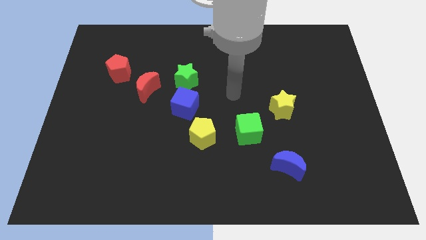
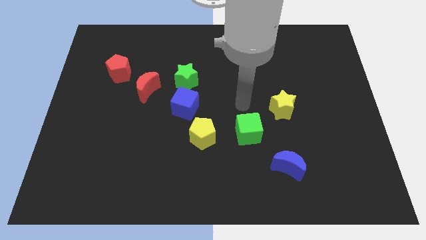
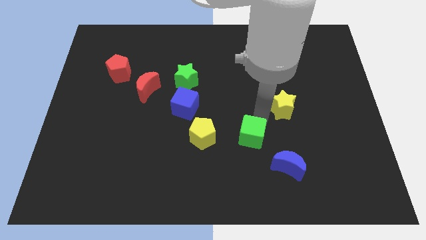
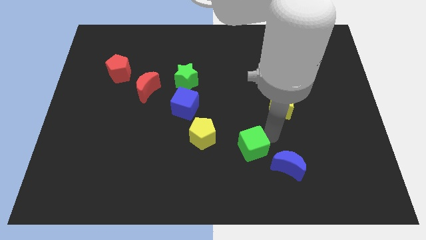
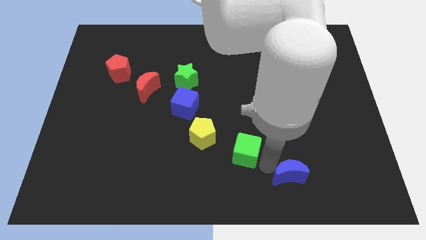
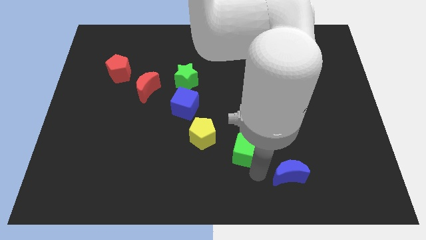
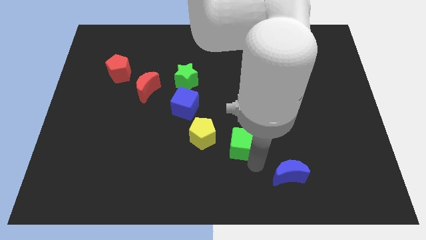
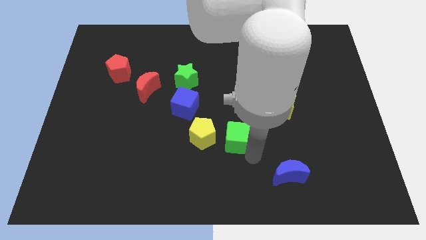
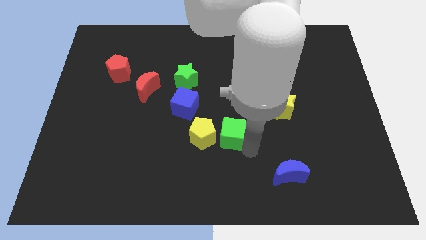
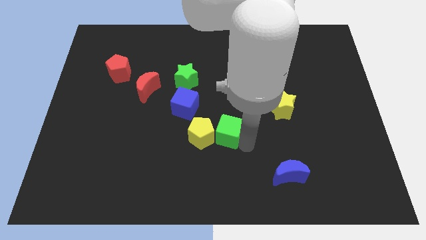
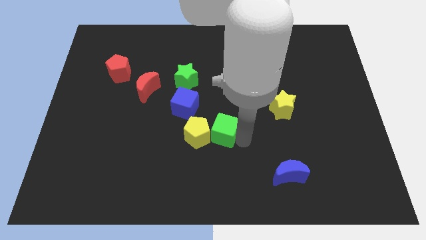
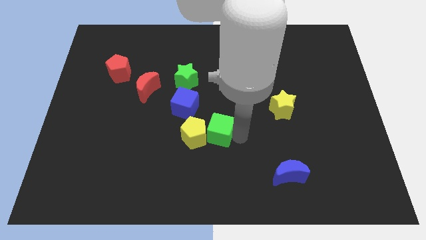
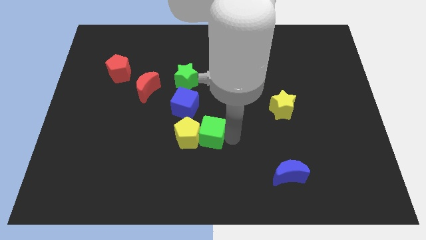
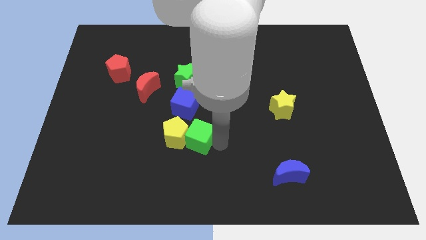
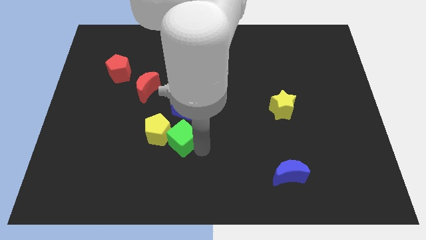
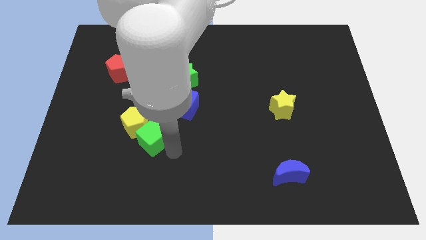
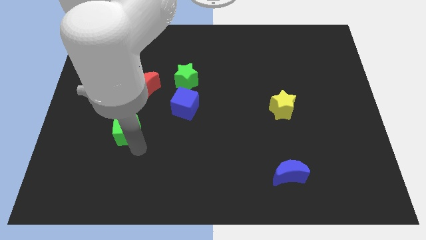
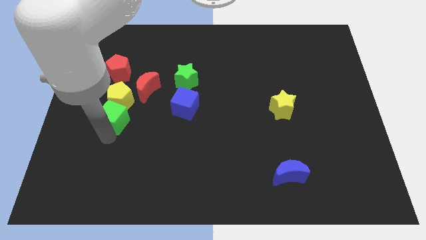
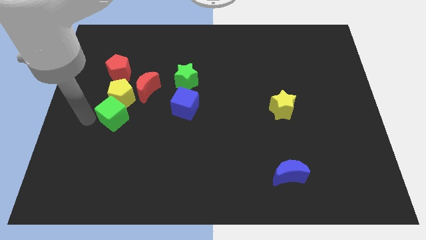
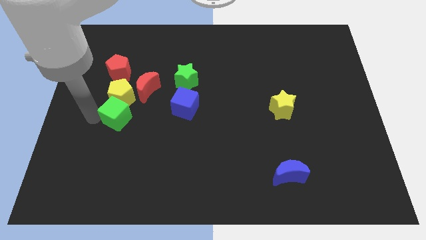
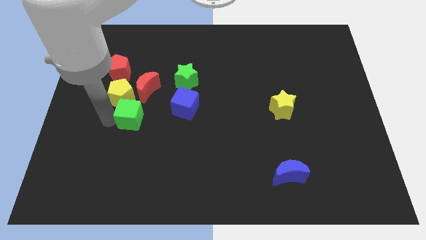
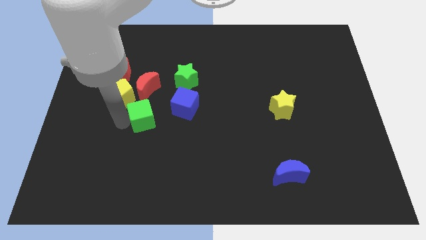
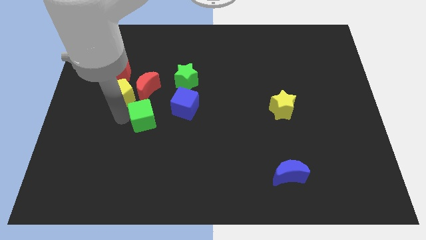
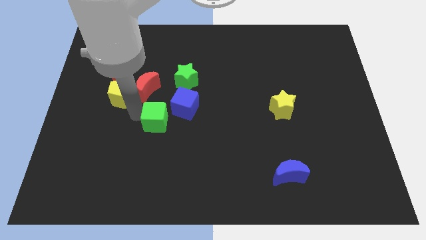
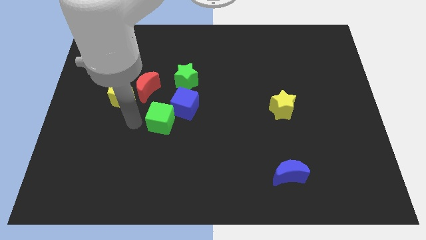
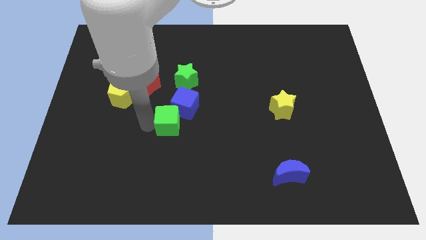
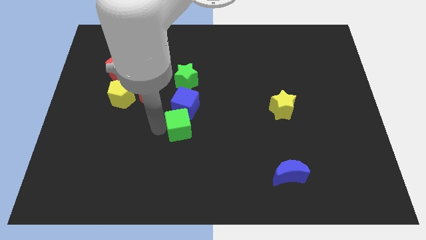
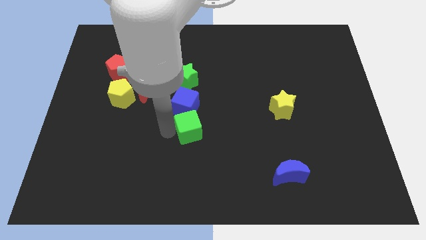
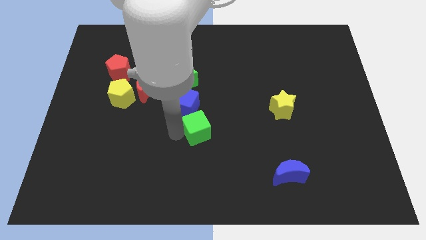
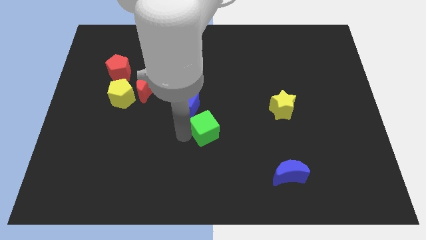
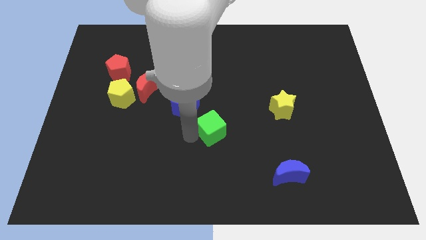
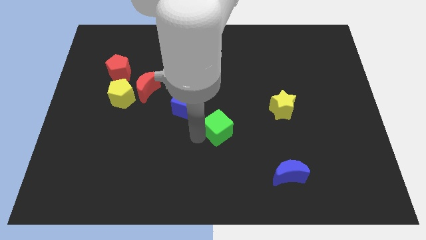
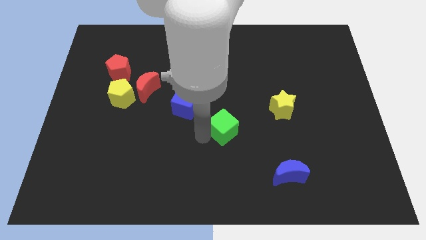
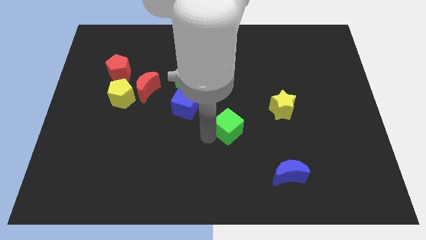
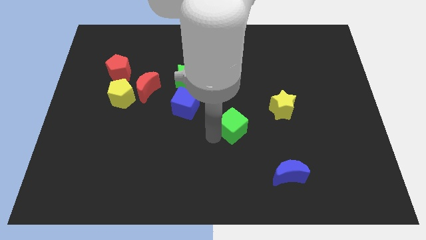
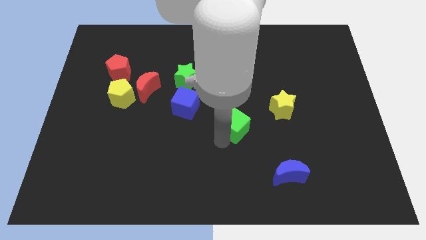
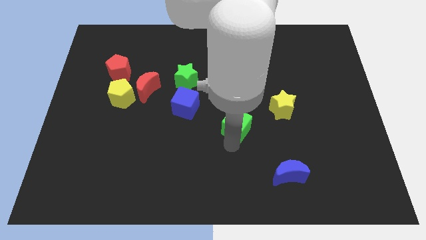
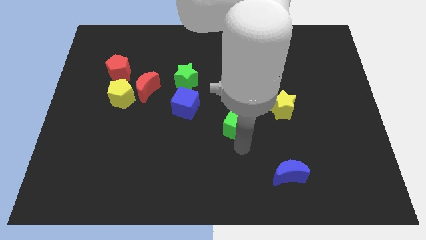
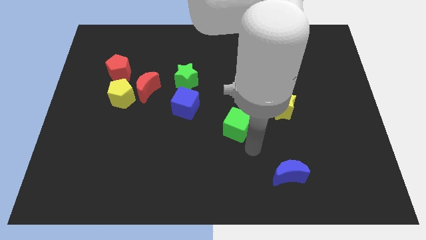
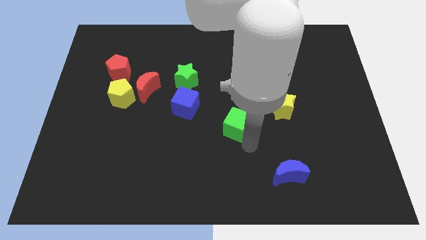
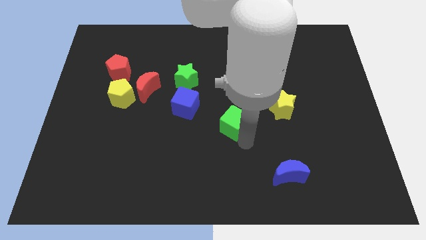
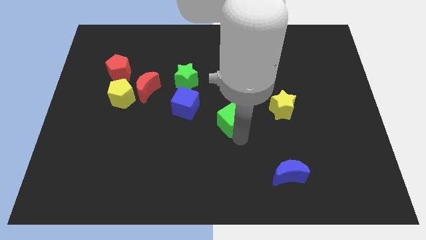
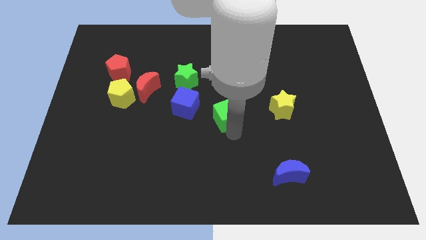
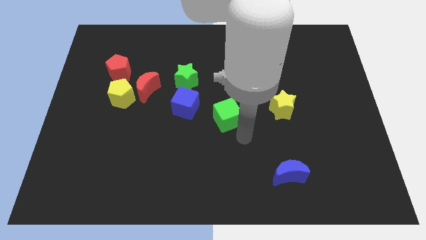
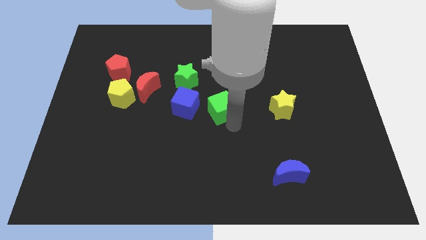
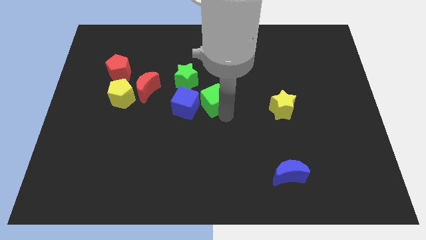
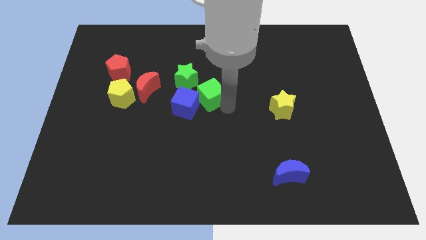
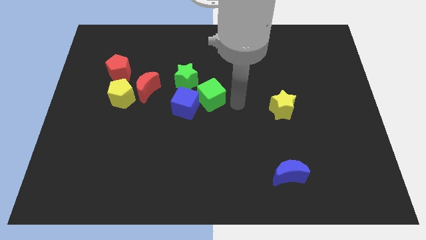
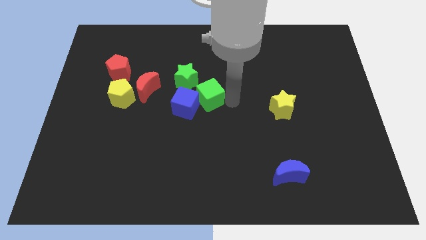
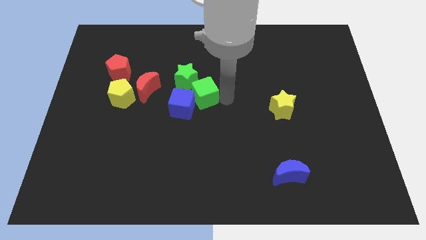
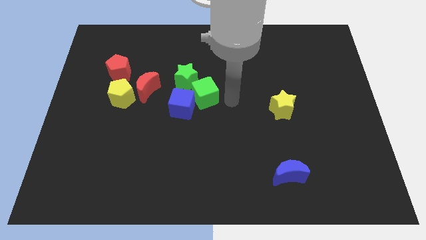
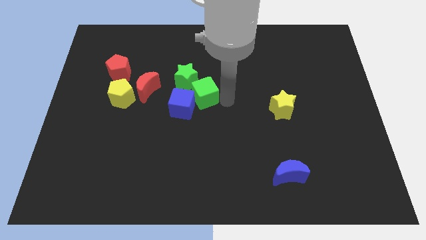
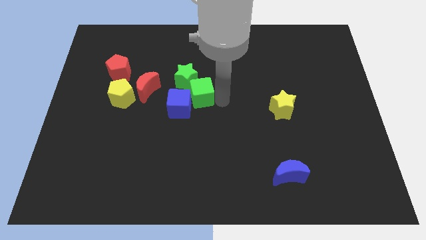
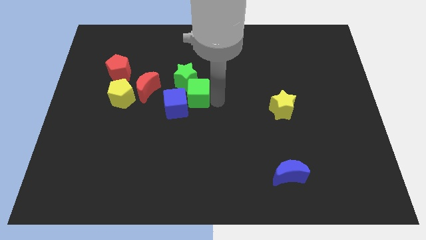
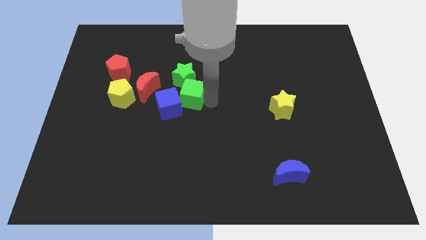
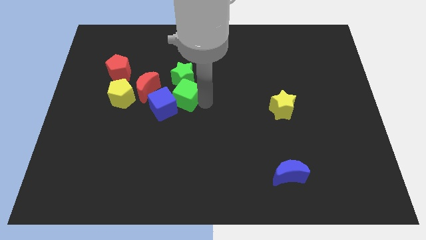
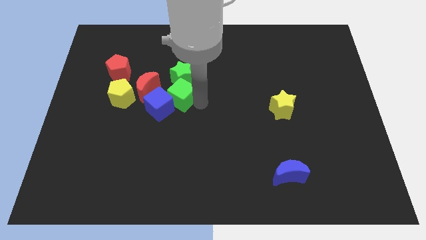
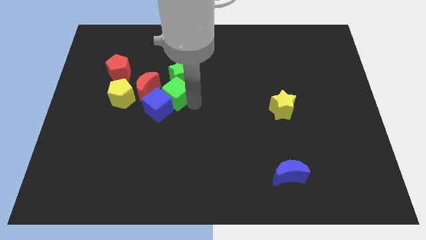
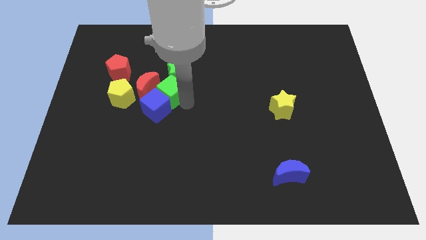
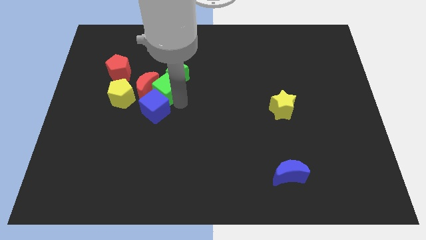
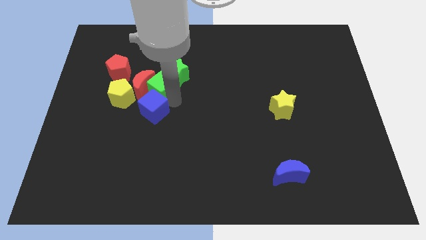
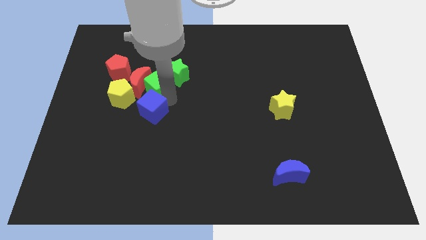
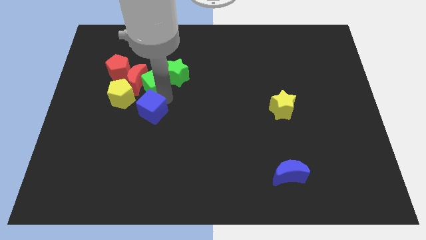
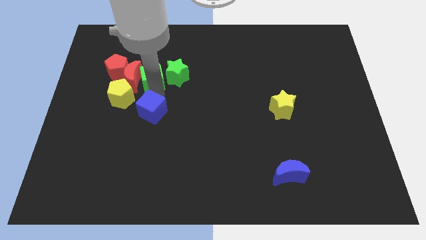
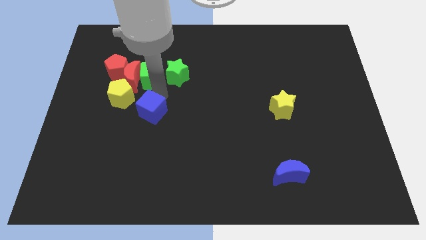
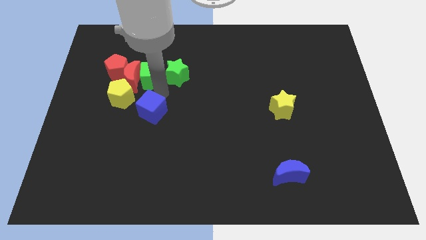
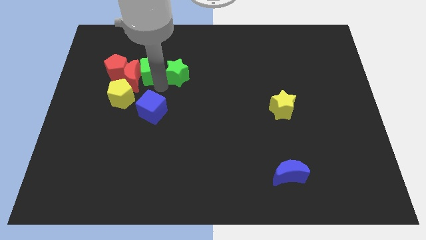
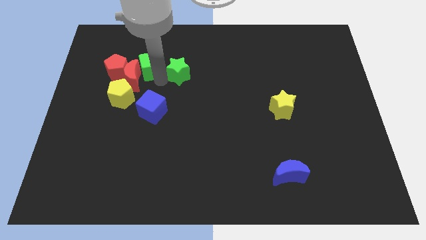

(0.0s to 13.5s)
move the green cube to the top side of the red moon
